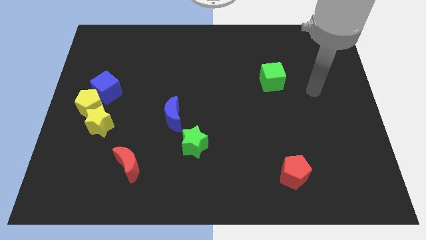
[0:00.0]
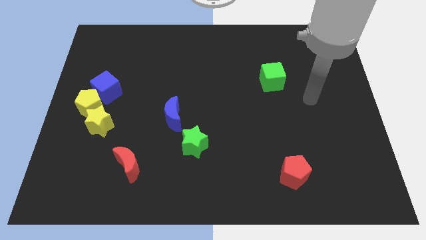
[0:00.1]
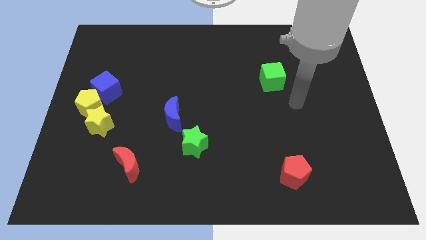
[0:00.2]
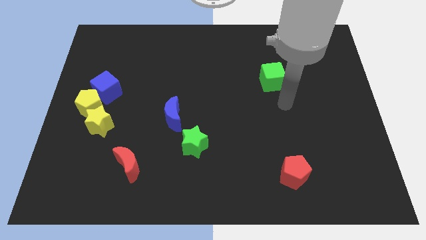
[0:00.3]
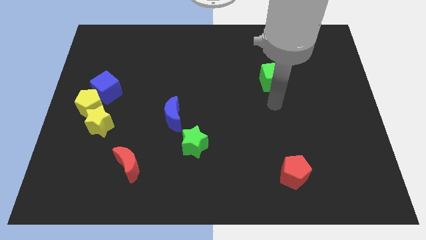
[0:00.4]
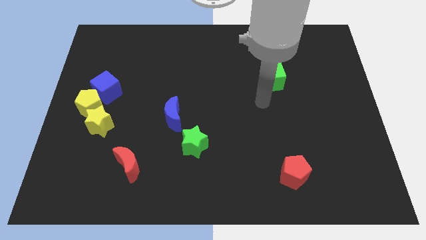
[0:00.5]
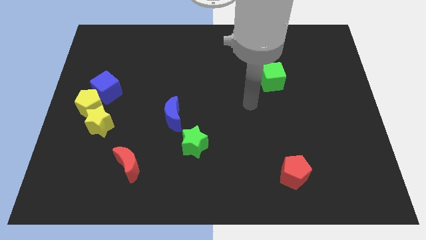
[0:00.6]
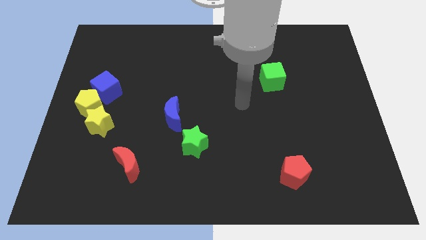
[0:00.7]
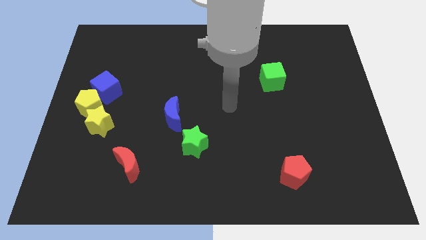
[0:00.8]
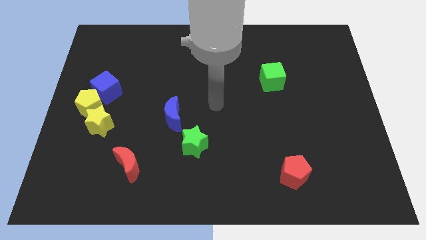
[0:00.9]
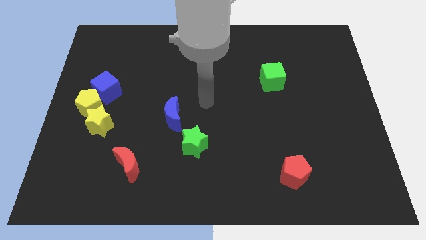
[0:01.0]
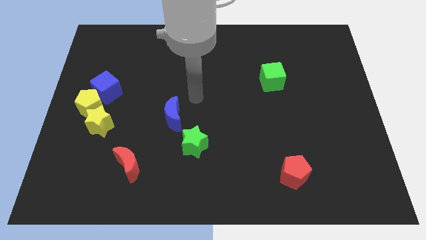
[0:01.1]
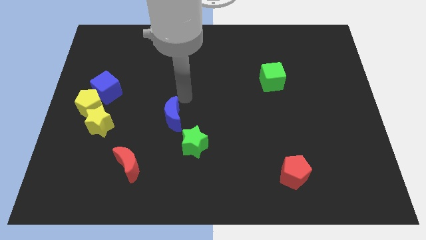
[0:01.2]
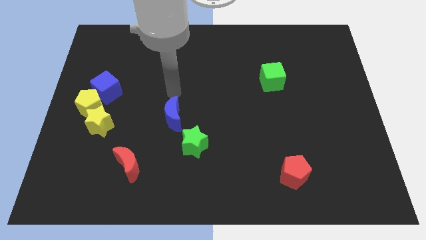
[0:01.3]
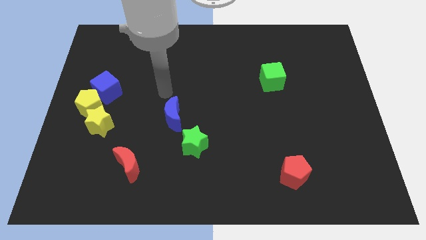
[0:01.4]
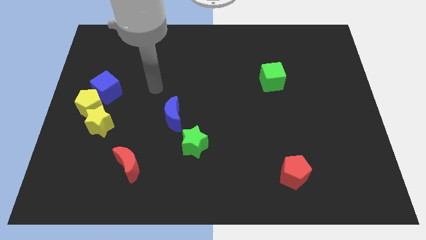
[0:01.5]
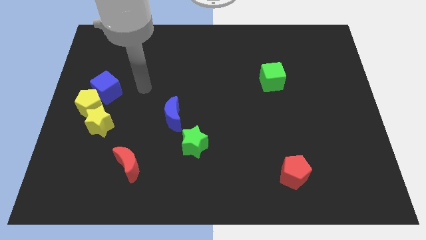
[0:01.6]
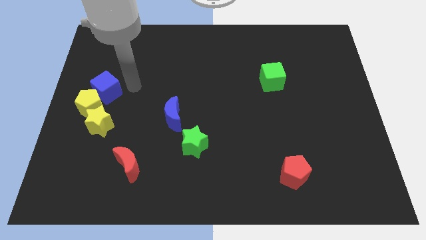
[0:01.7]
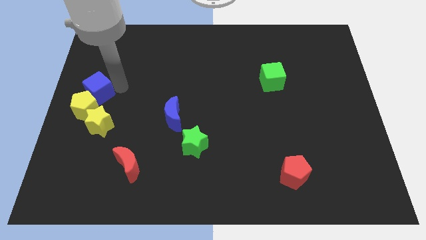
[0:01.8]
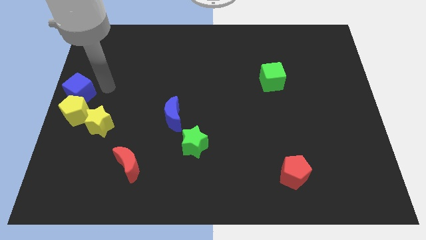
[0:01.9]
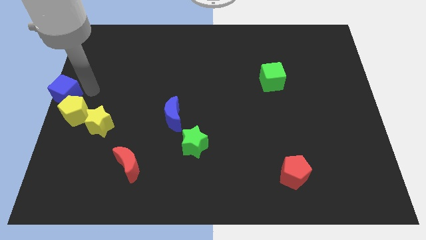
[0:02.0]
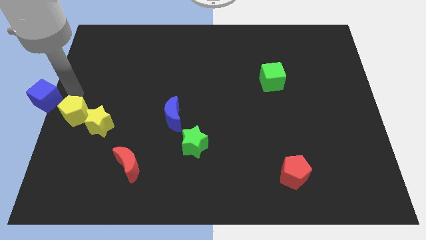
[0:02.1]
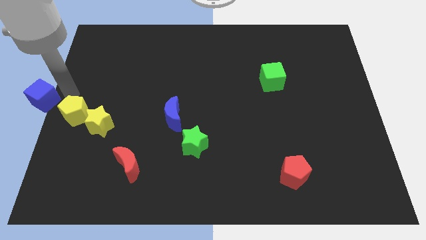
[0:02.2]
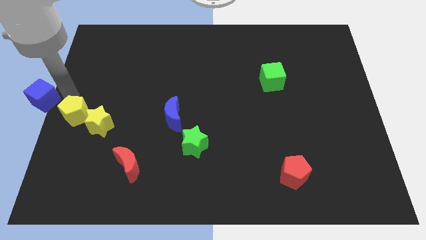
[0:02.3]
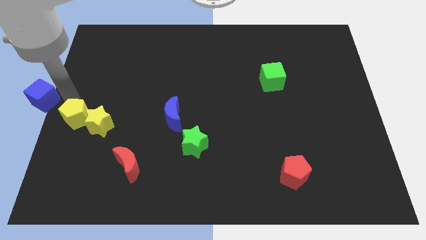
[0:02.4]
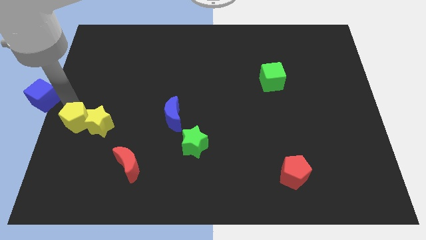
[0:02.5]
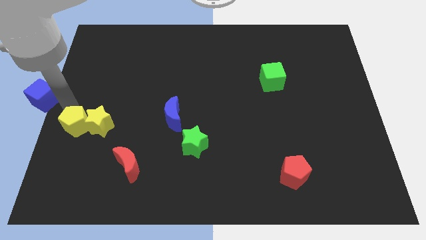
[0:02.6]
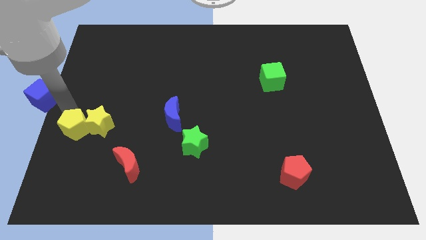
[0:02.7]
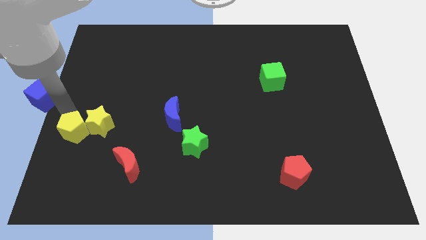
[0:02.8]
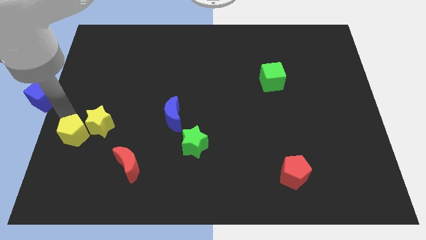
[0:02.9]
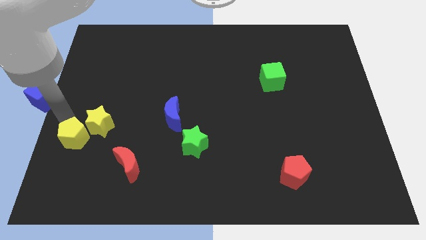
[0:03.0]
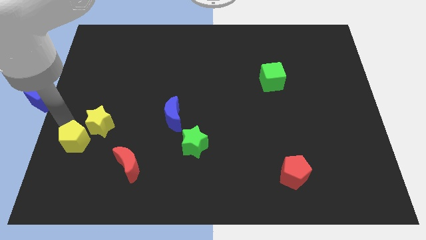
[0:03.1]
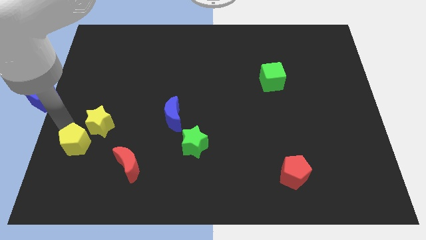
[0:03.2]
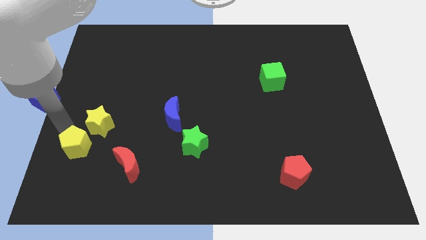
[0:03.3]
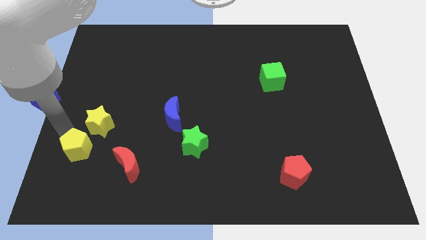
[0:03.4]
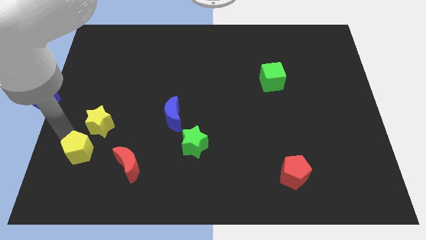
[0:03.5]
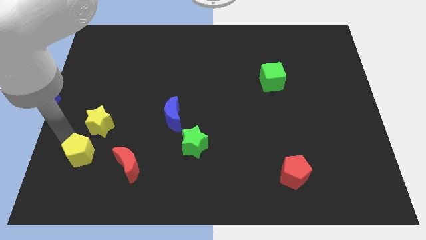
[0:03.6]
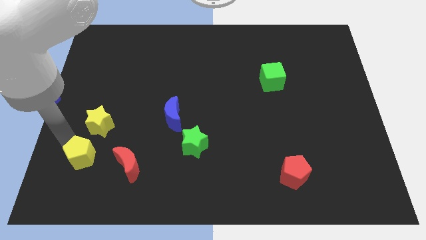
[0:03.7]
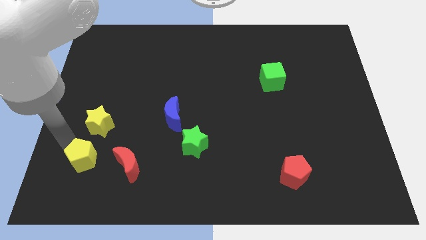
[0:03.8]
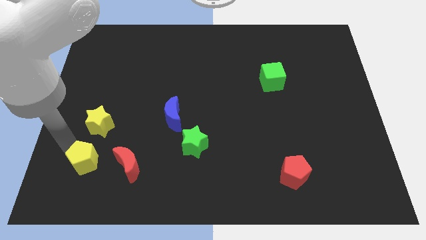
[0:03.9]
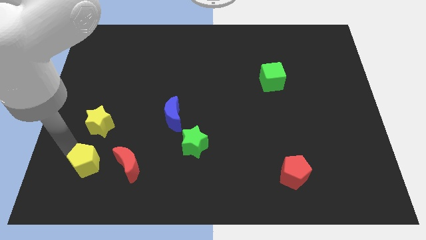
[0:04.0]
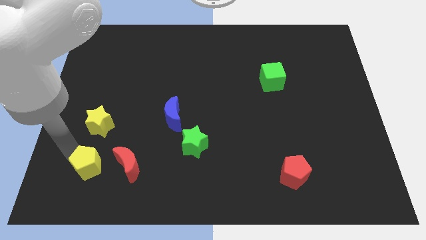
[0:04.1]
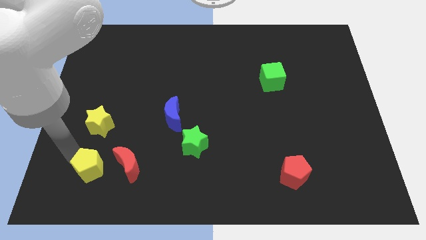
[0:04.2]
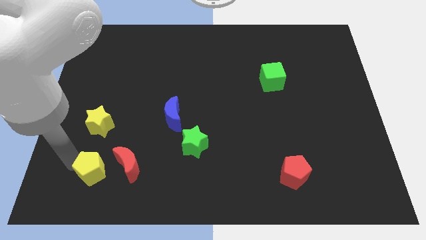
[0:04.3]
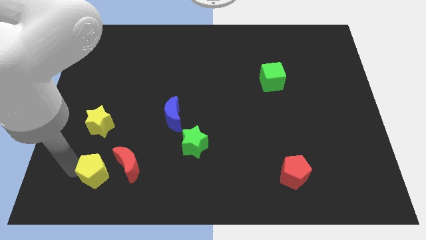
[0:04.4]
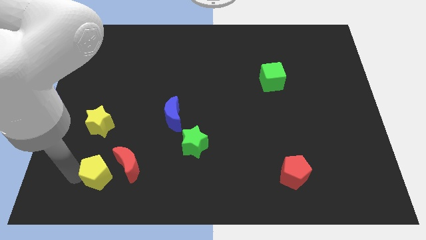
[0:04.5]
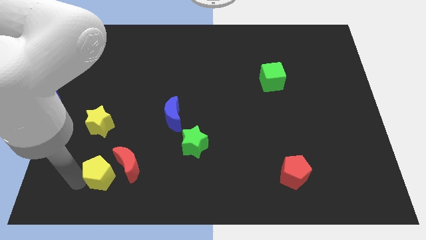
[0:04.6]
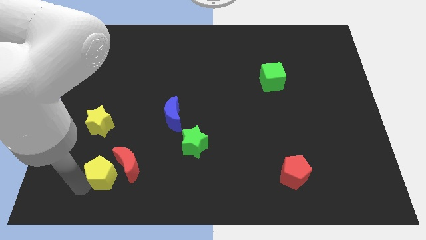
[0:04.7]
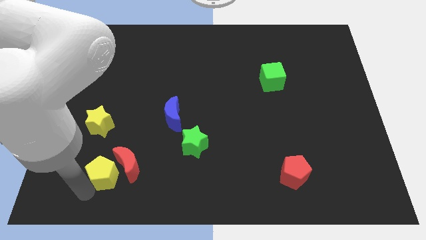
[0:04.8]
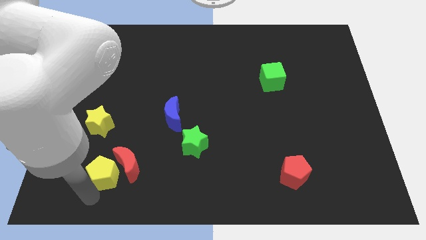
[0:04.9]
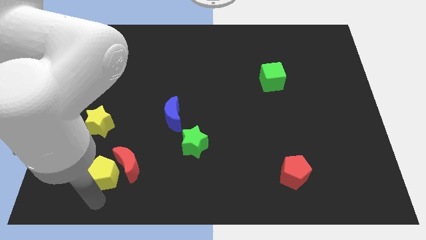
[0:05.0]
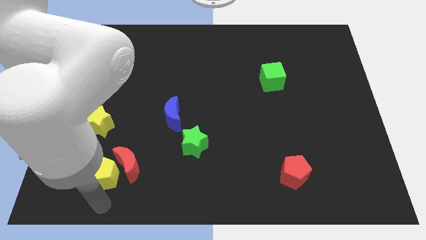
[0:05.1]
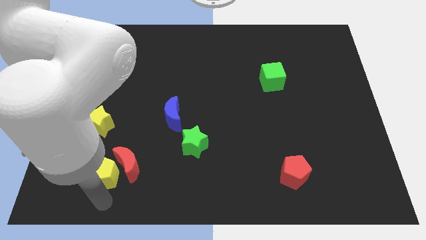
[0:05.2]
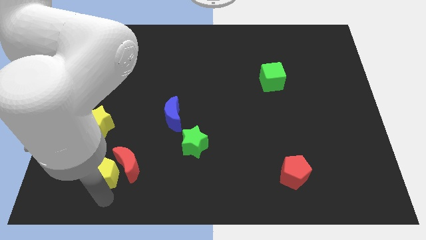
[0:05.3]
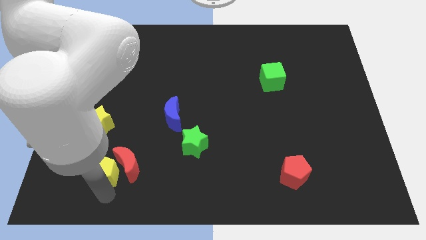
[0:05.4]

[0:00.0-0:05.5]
put the yellow pentagon to the top left side of the red moon

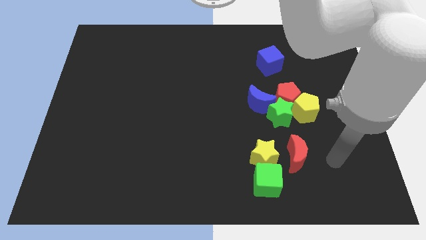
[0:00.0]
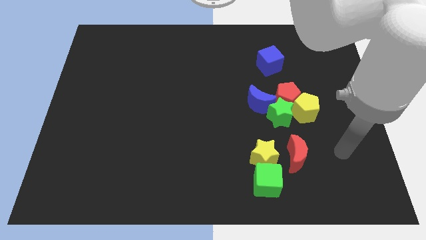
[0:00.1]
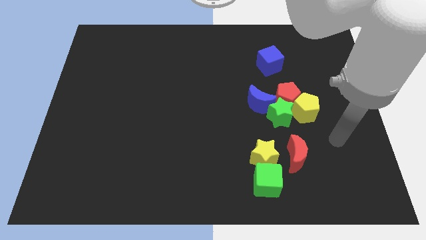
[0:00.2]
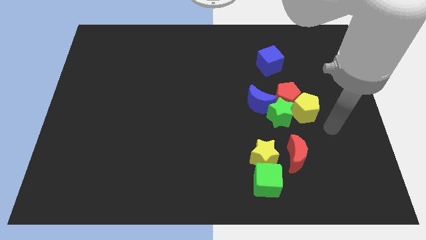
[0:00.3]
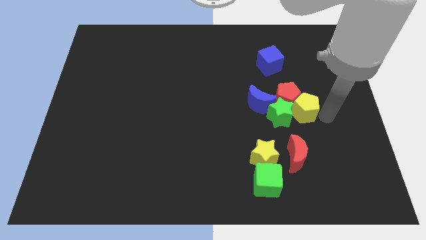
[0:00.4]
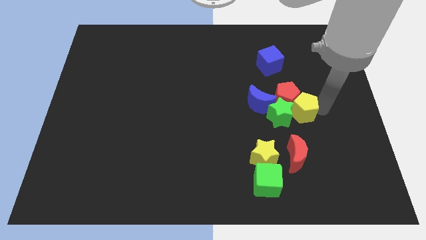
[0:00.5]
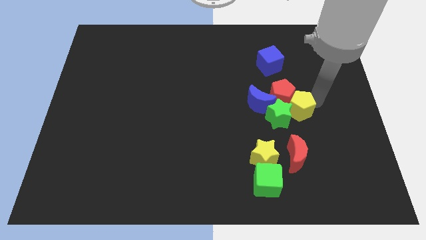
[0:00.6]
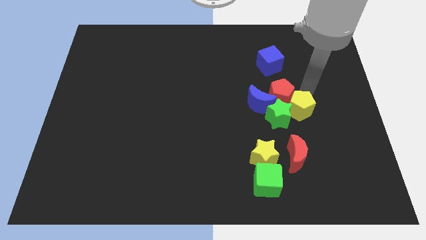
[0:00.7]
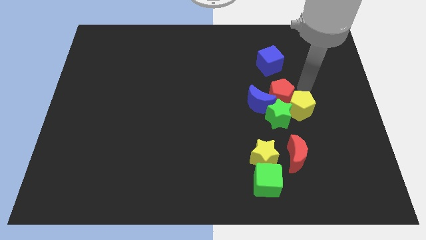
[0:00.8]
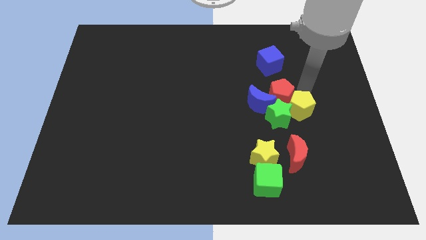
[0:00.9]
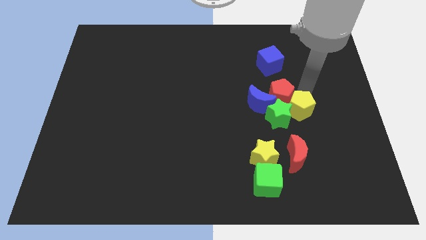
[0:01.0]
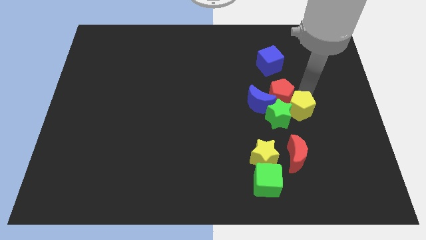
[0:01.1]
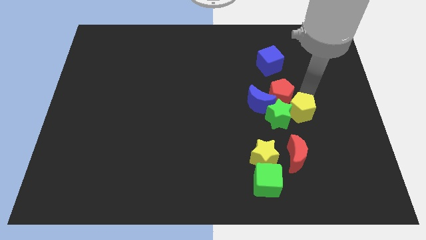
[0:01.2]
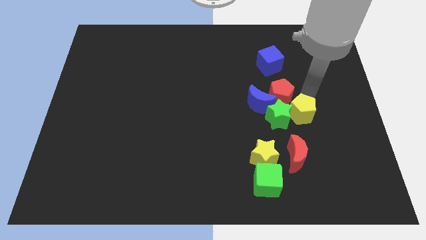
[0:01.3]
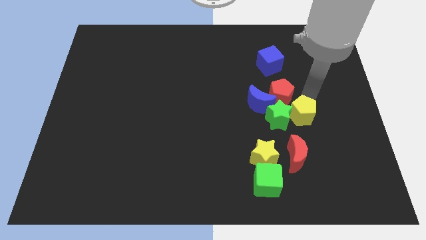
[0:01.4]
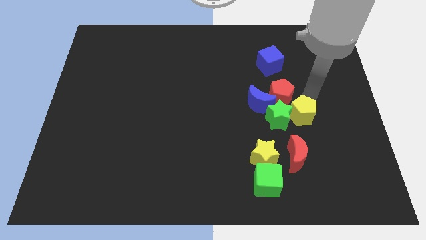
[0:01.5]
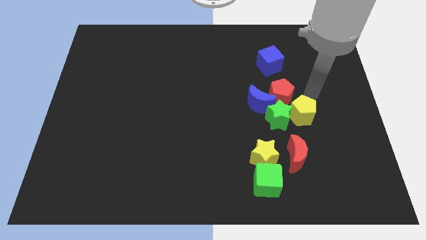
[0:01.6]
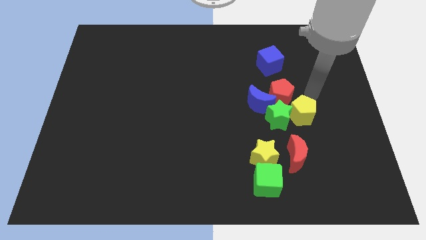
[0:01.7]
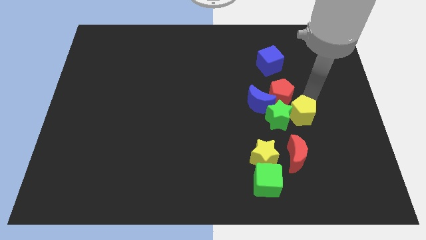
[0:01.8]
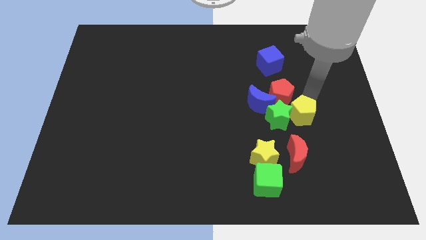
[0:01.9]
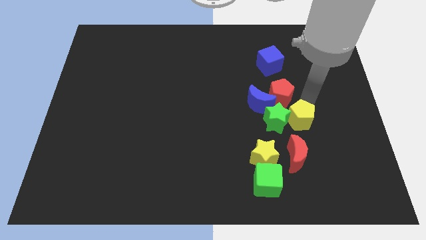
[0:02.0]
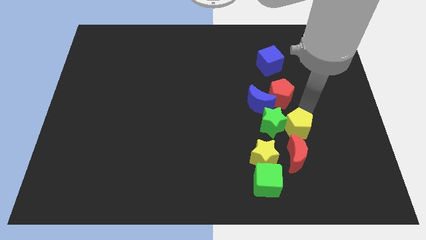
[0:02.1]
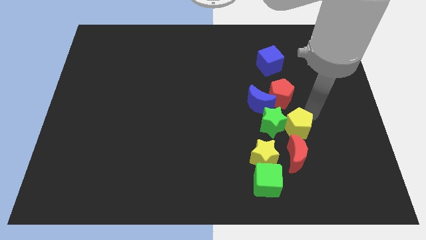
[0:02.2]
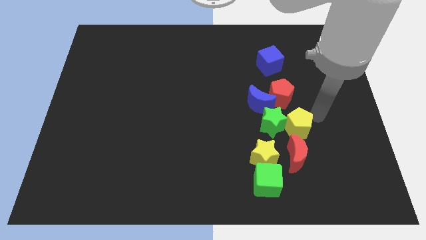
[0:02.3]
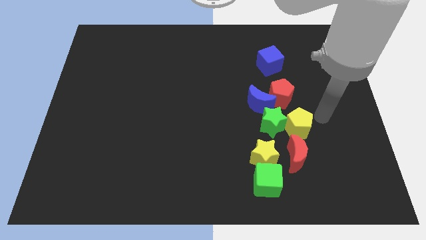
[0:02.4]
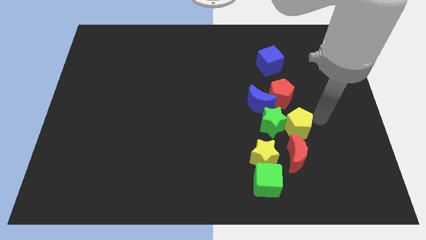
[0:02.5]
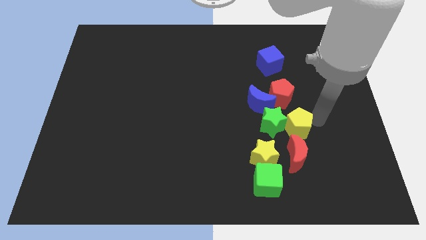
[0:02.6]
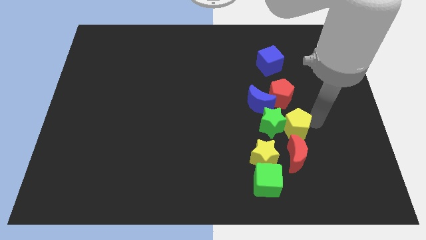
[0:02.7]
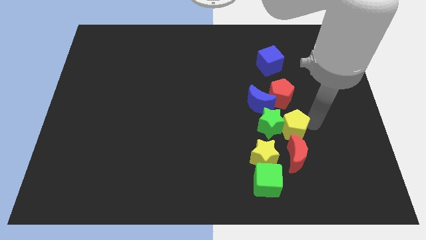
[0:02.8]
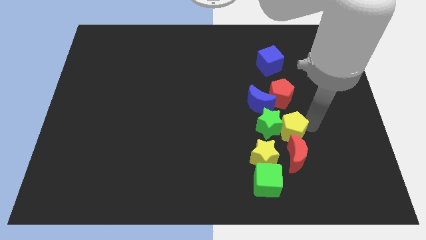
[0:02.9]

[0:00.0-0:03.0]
slide the yellow pentagon to the top left side of the red moon
